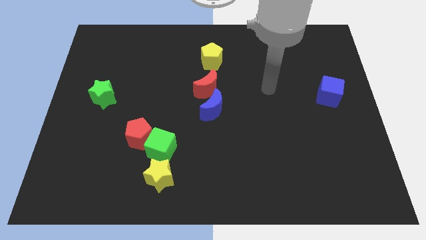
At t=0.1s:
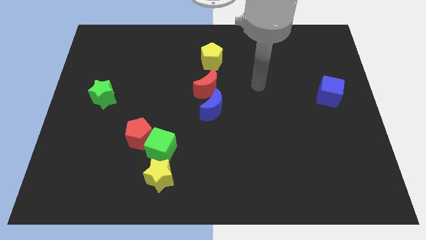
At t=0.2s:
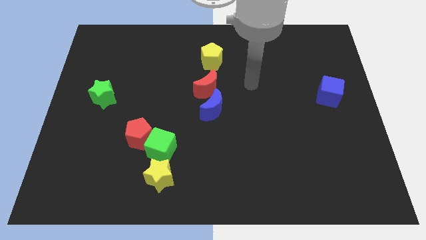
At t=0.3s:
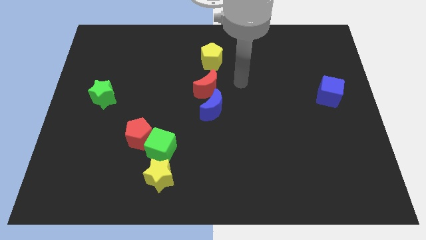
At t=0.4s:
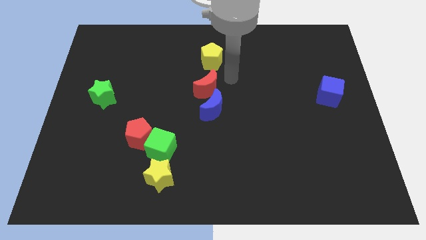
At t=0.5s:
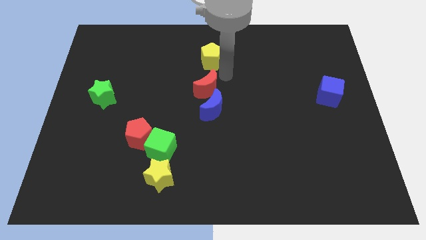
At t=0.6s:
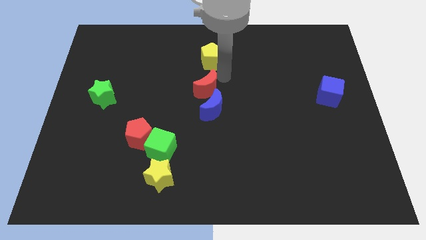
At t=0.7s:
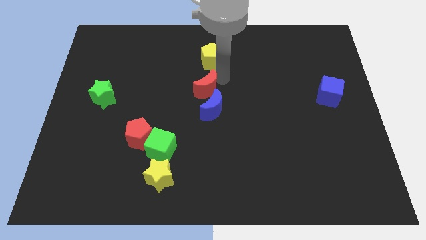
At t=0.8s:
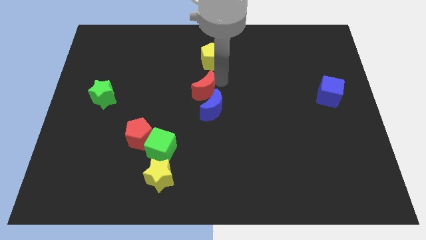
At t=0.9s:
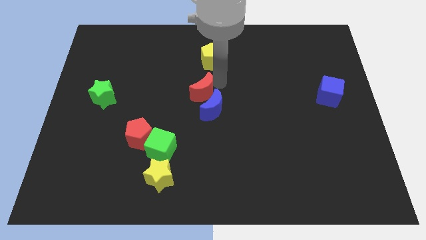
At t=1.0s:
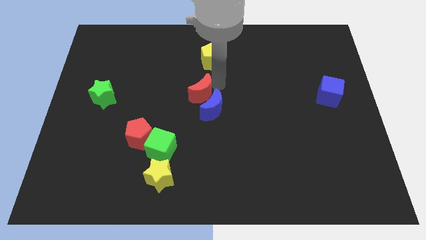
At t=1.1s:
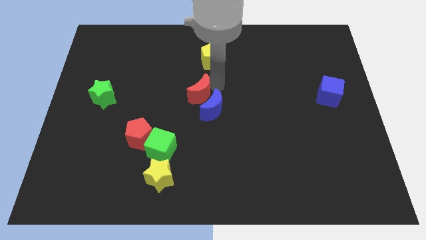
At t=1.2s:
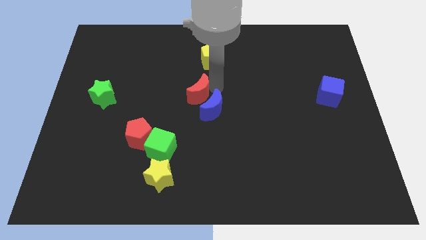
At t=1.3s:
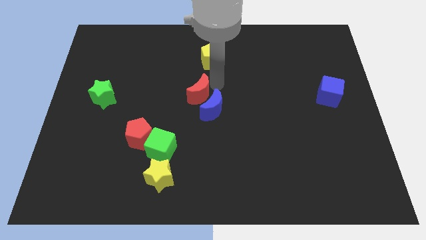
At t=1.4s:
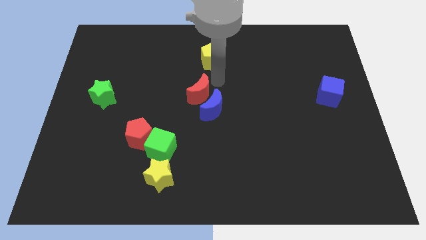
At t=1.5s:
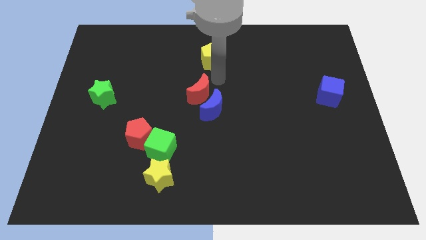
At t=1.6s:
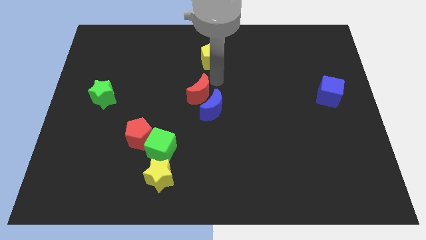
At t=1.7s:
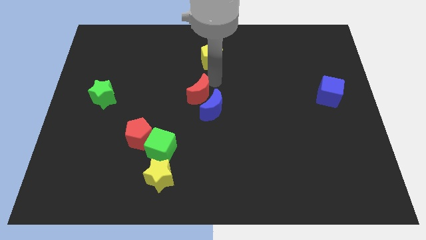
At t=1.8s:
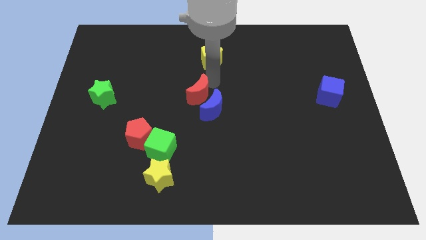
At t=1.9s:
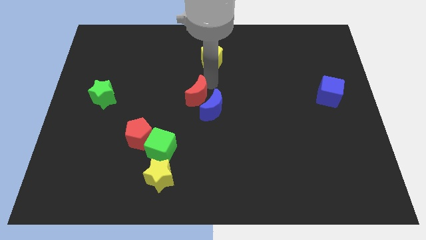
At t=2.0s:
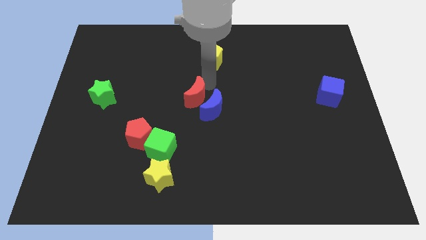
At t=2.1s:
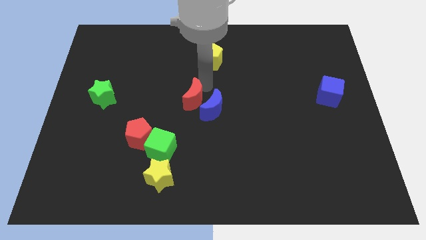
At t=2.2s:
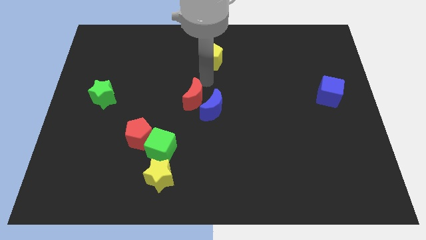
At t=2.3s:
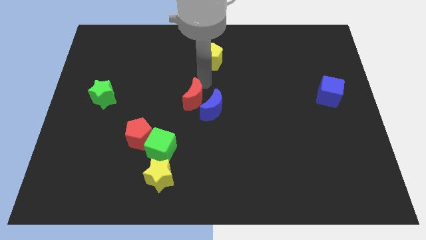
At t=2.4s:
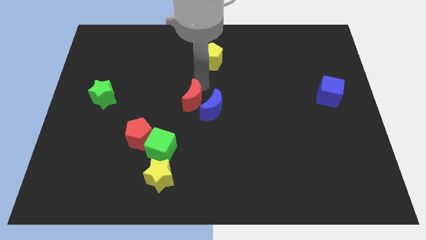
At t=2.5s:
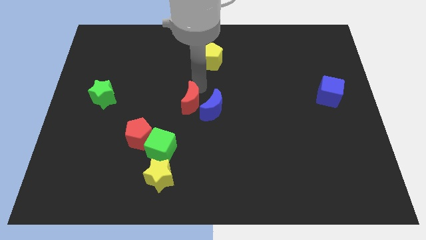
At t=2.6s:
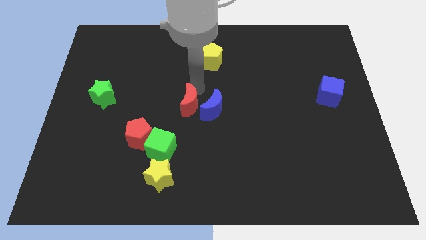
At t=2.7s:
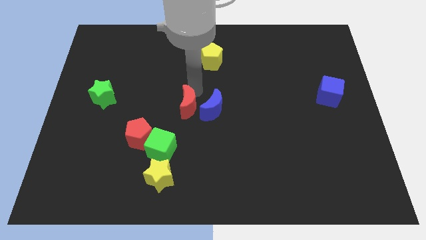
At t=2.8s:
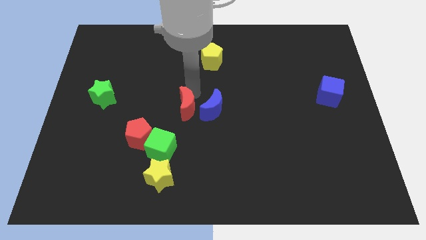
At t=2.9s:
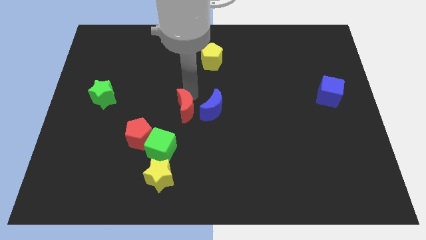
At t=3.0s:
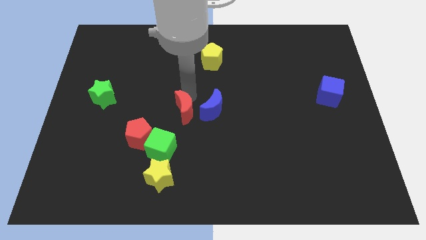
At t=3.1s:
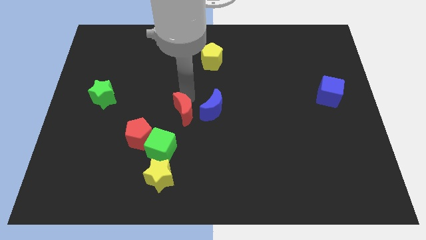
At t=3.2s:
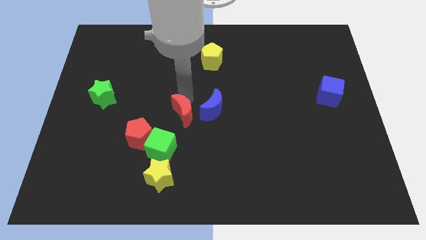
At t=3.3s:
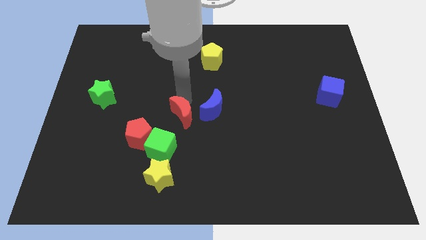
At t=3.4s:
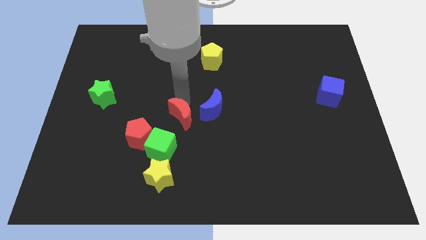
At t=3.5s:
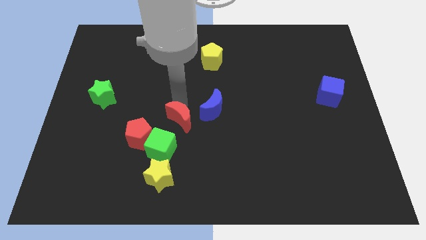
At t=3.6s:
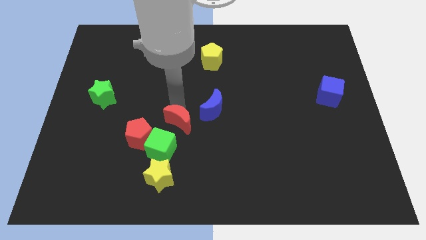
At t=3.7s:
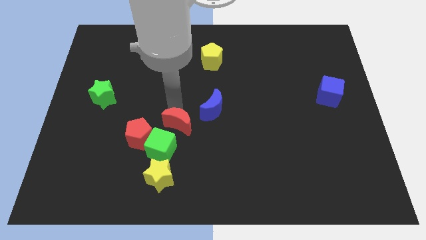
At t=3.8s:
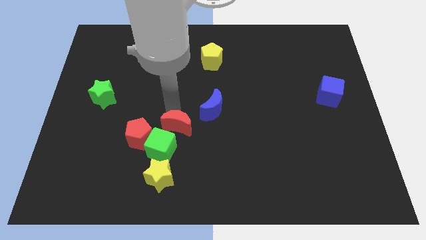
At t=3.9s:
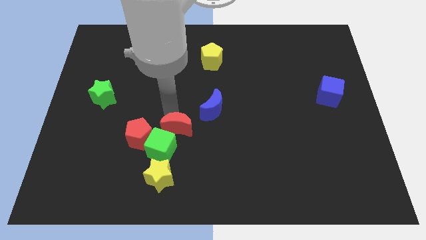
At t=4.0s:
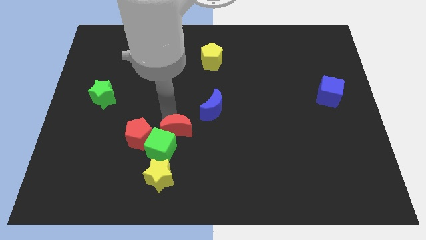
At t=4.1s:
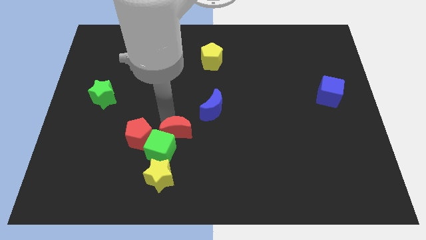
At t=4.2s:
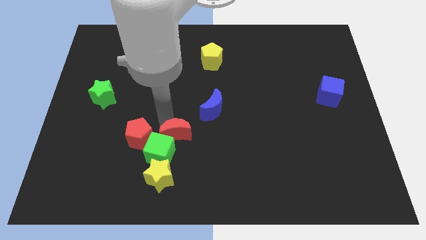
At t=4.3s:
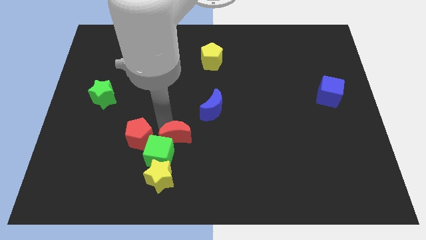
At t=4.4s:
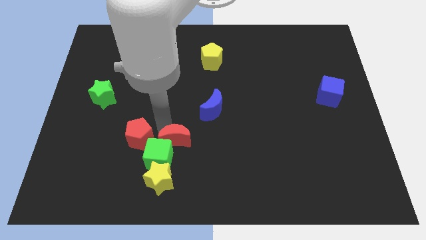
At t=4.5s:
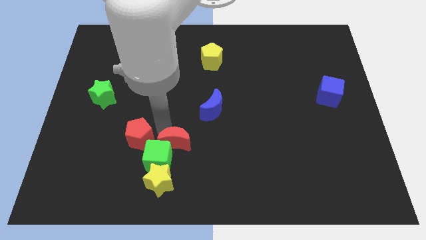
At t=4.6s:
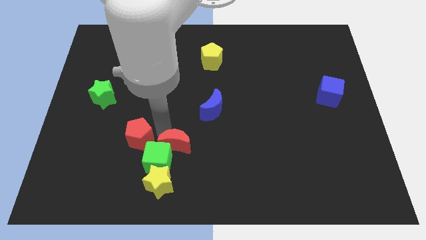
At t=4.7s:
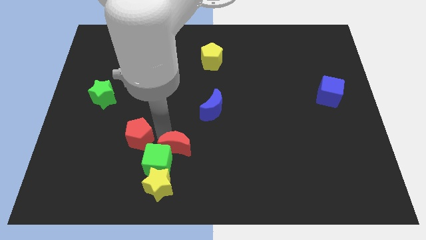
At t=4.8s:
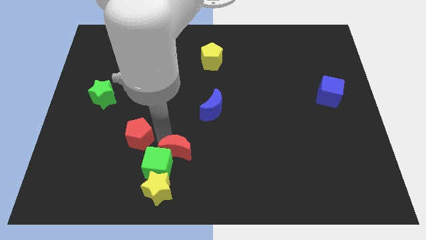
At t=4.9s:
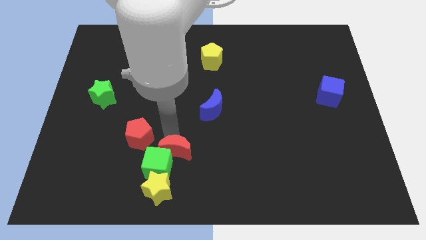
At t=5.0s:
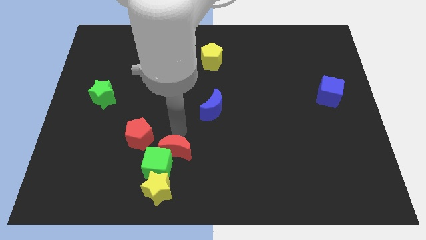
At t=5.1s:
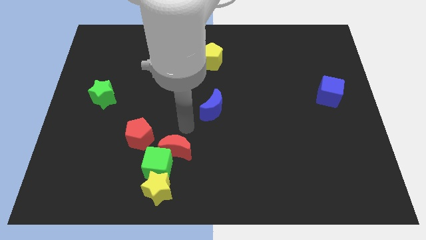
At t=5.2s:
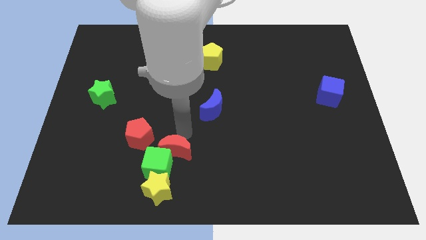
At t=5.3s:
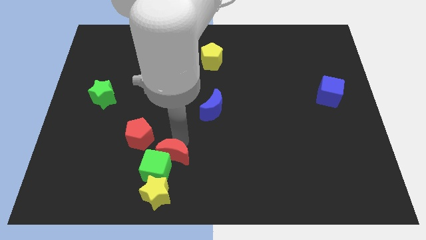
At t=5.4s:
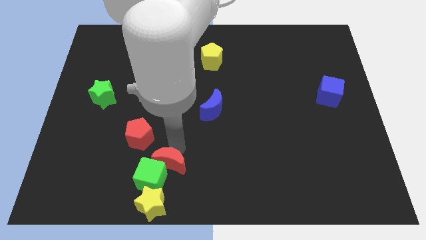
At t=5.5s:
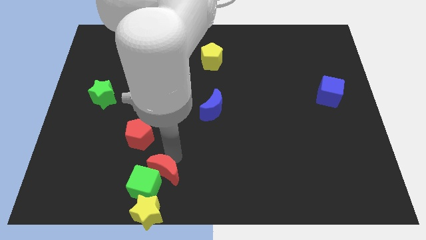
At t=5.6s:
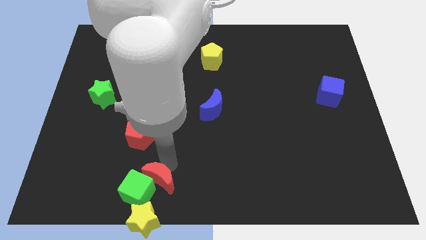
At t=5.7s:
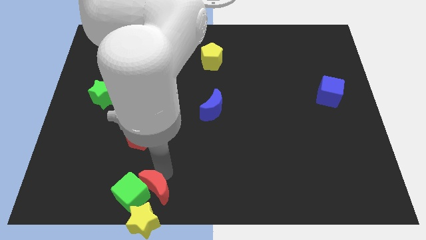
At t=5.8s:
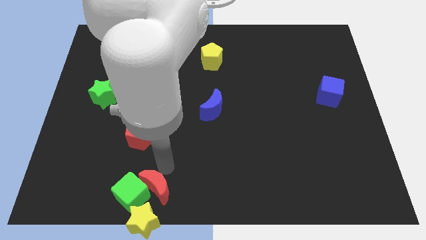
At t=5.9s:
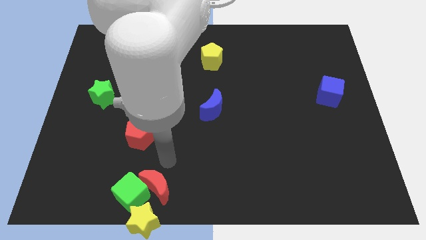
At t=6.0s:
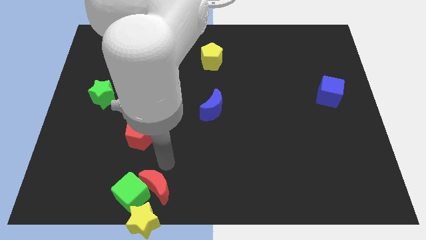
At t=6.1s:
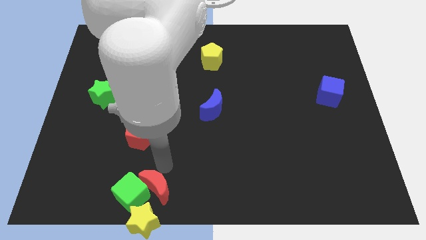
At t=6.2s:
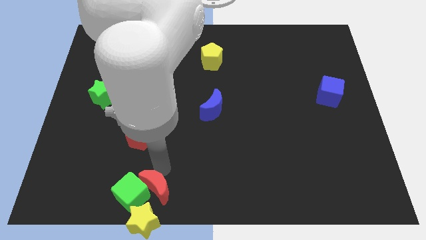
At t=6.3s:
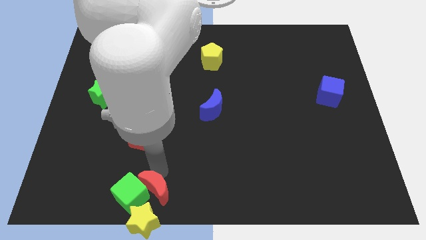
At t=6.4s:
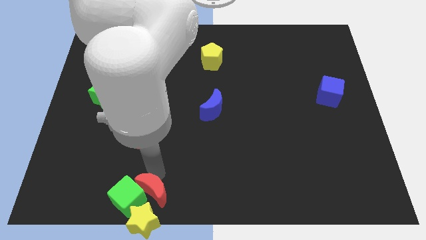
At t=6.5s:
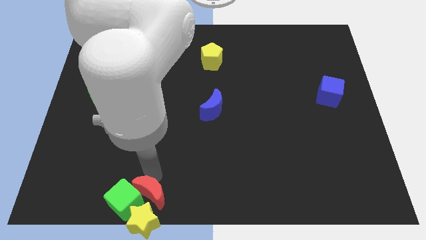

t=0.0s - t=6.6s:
move the red moon close to the yellow star

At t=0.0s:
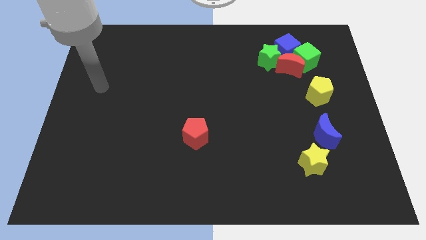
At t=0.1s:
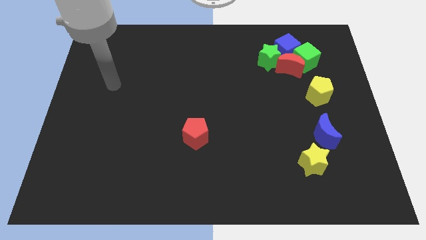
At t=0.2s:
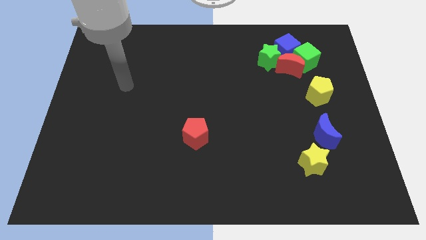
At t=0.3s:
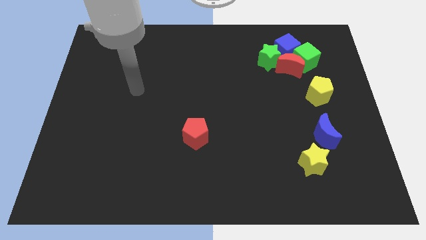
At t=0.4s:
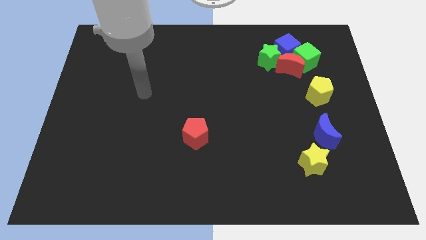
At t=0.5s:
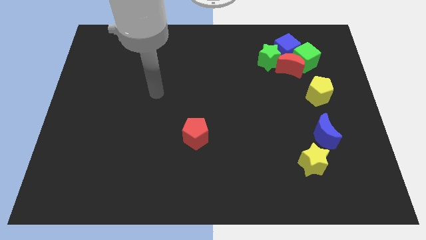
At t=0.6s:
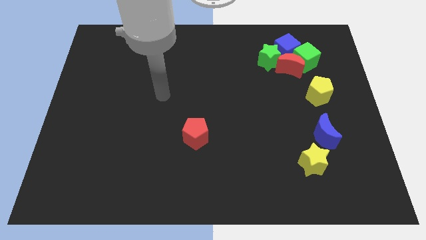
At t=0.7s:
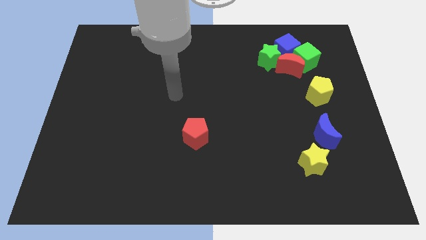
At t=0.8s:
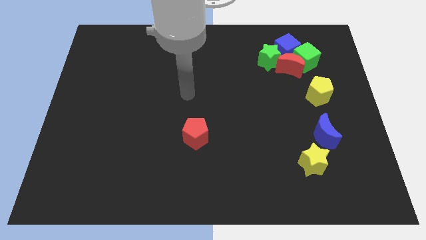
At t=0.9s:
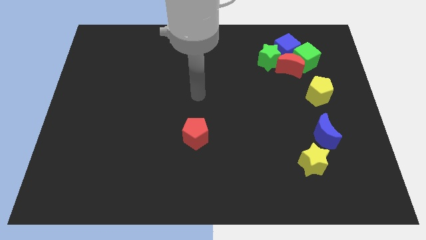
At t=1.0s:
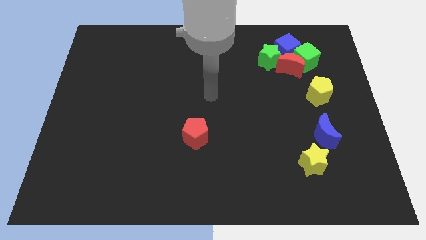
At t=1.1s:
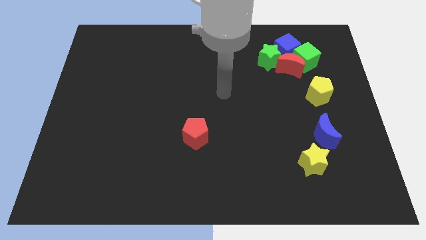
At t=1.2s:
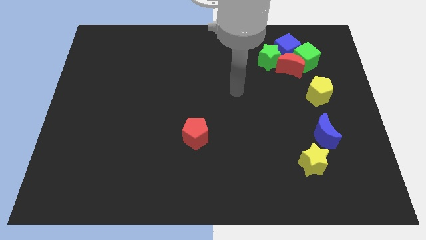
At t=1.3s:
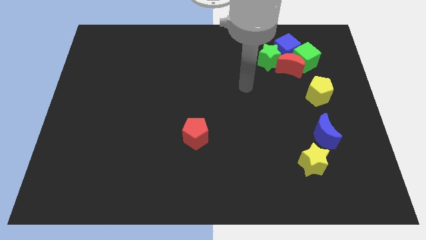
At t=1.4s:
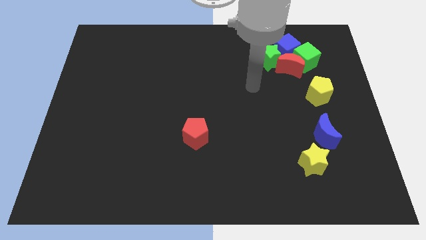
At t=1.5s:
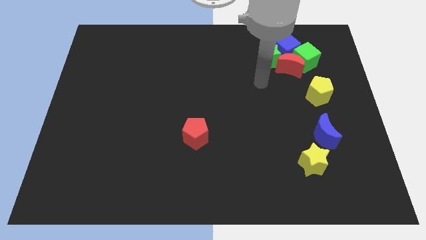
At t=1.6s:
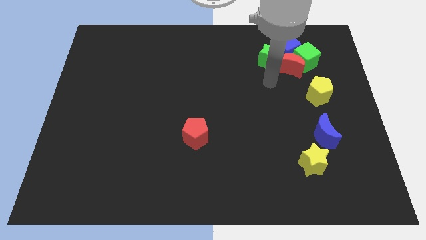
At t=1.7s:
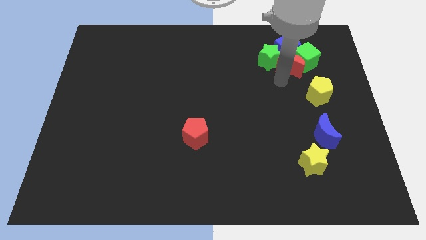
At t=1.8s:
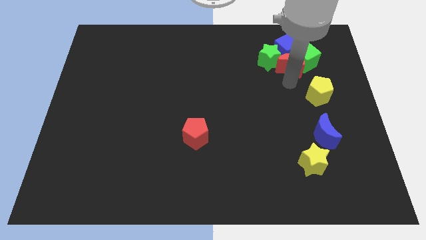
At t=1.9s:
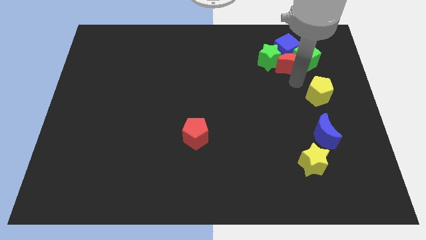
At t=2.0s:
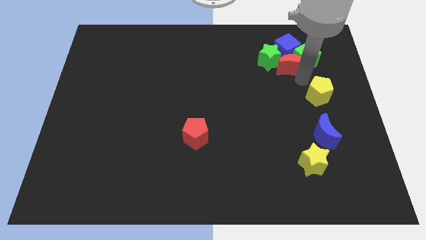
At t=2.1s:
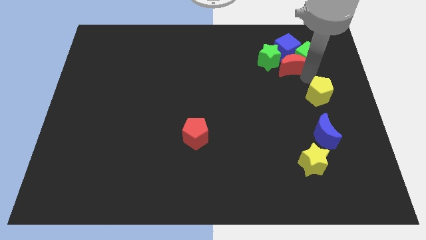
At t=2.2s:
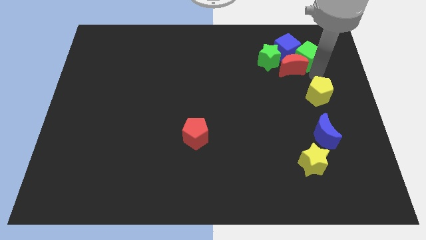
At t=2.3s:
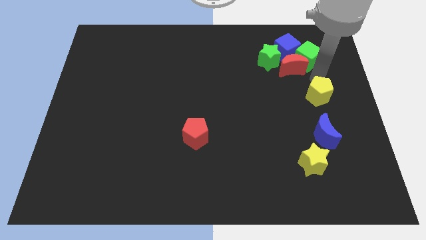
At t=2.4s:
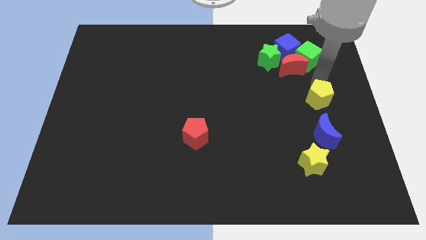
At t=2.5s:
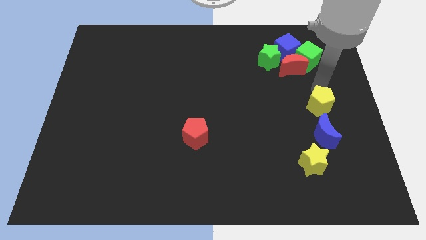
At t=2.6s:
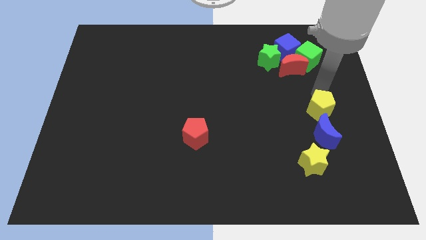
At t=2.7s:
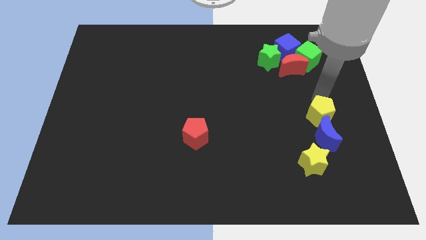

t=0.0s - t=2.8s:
push the yellow pentagon to the blue moon
